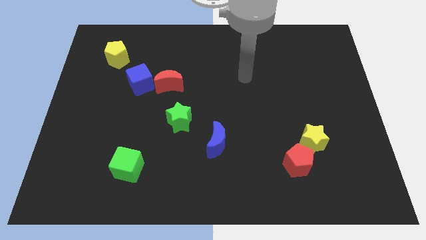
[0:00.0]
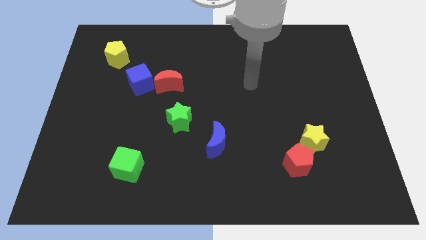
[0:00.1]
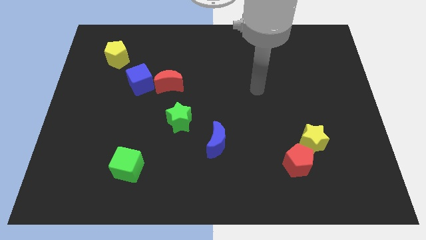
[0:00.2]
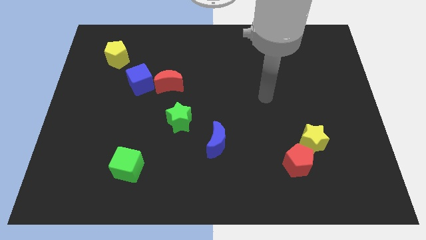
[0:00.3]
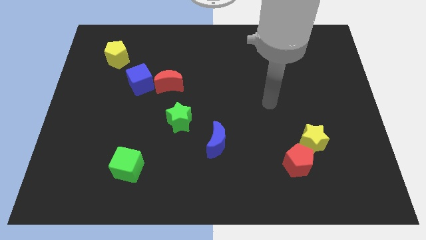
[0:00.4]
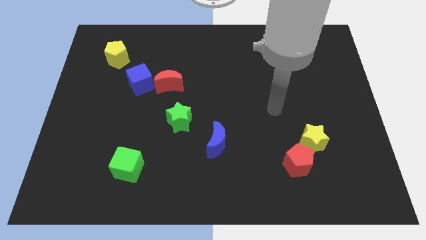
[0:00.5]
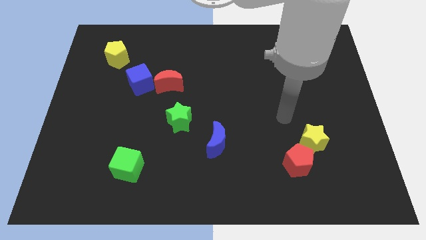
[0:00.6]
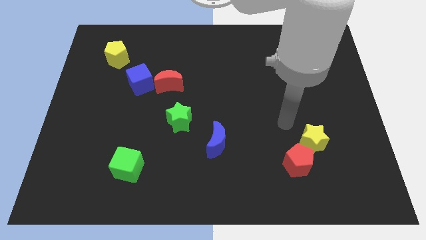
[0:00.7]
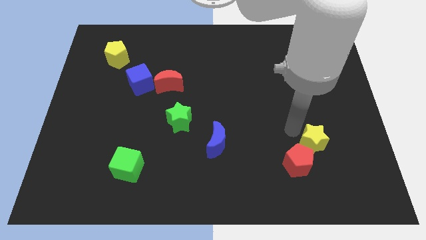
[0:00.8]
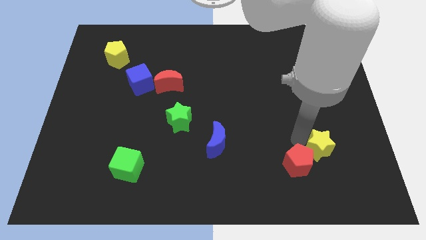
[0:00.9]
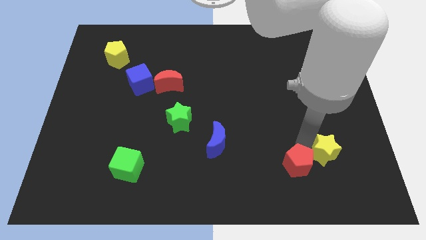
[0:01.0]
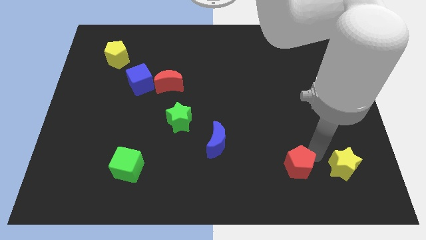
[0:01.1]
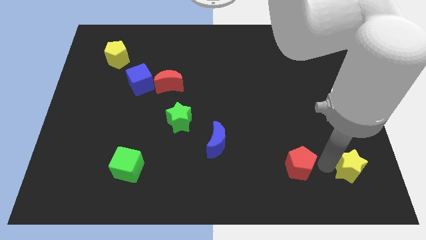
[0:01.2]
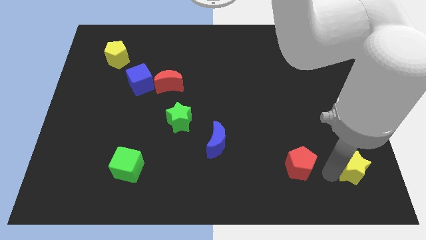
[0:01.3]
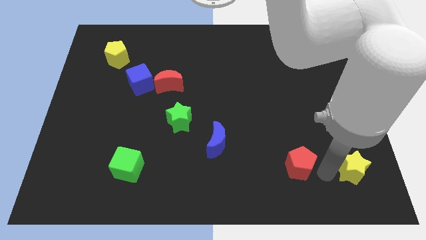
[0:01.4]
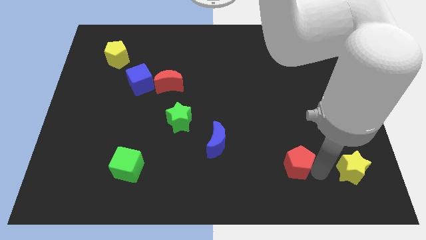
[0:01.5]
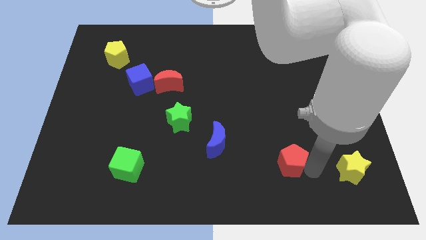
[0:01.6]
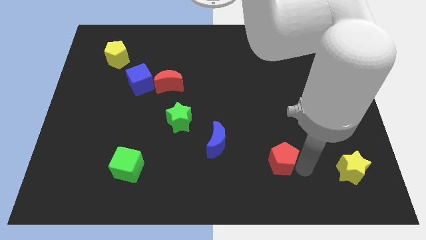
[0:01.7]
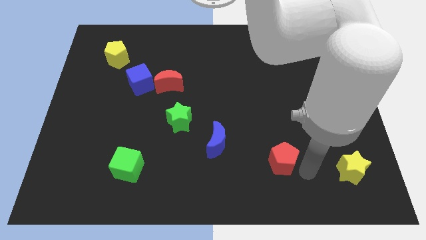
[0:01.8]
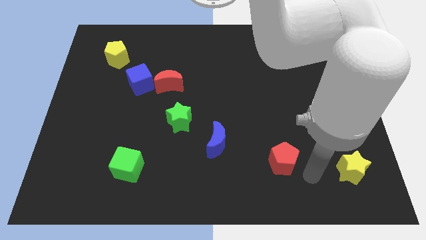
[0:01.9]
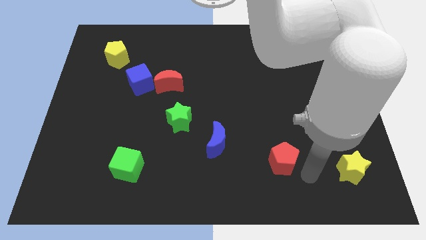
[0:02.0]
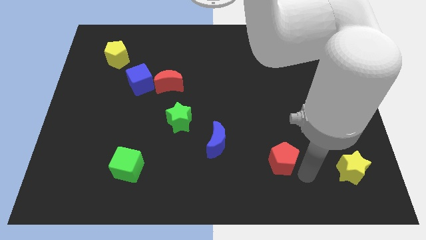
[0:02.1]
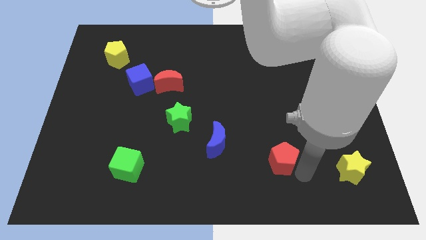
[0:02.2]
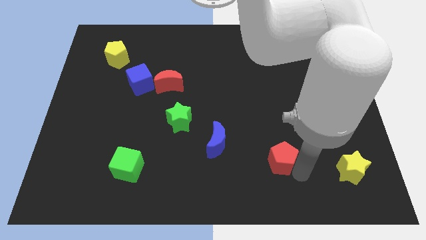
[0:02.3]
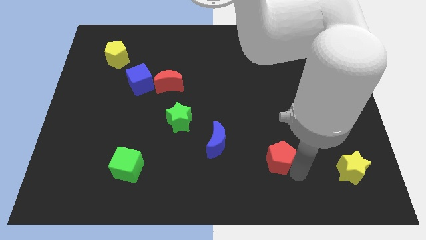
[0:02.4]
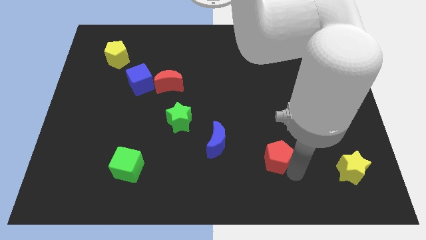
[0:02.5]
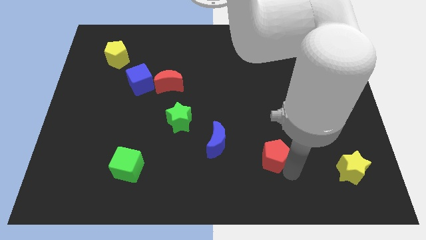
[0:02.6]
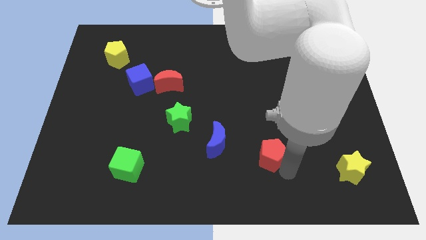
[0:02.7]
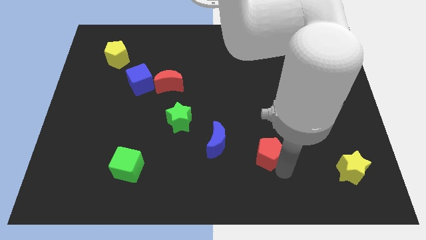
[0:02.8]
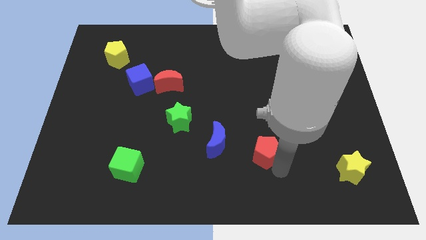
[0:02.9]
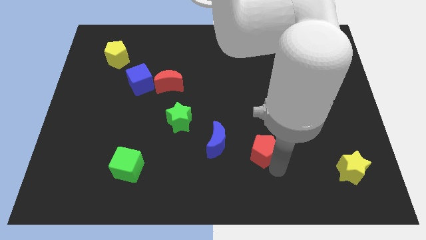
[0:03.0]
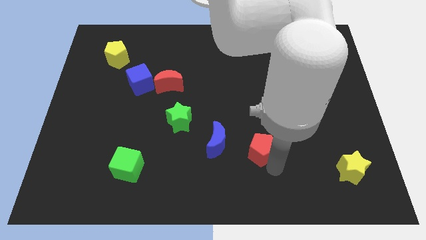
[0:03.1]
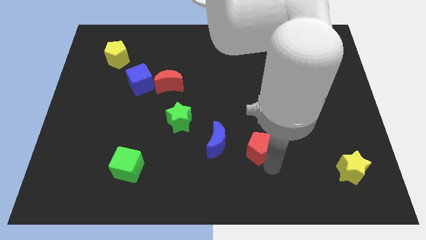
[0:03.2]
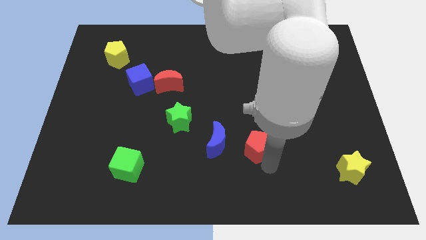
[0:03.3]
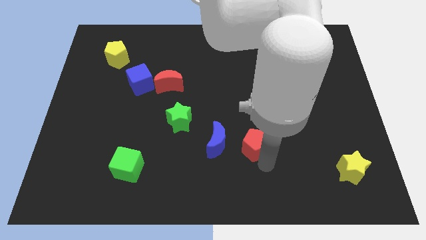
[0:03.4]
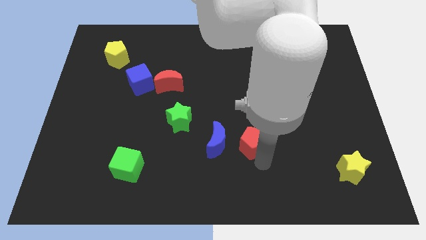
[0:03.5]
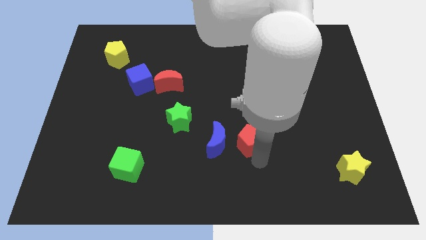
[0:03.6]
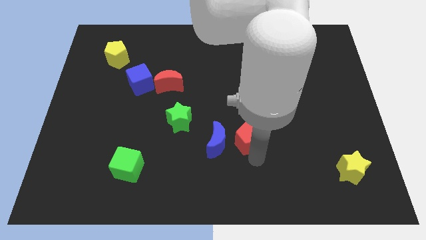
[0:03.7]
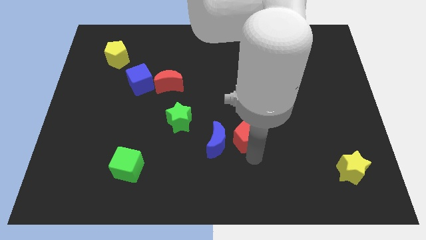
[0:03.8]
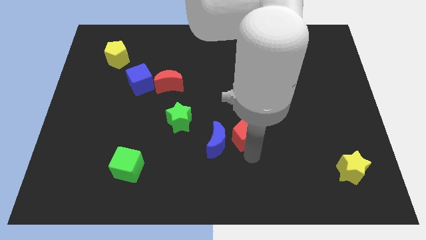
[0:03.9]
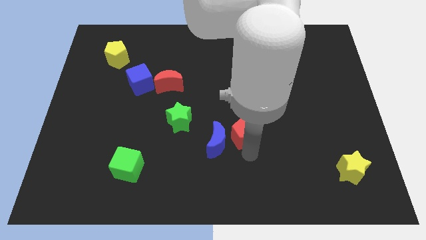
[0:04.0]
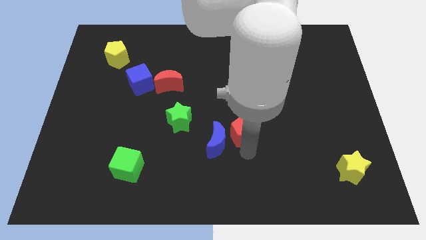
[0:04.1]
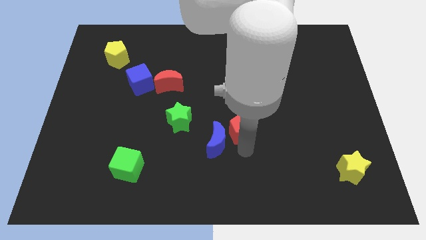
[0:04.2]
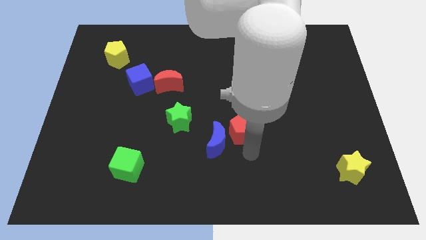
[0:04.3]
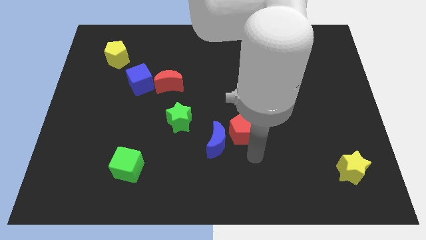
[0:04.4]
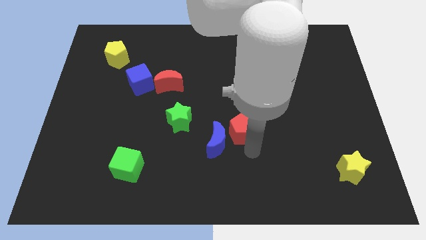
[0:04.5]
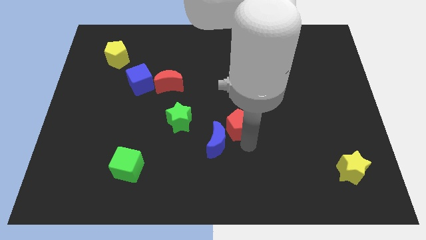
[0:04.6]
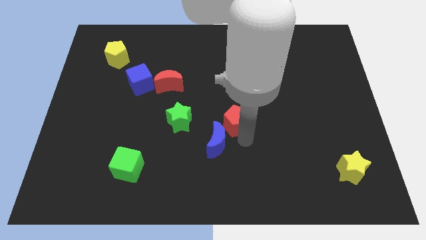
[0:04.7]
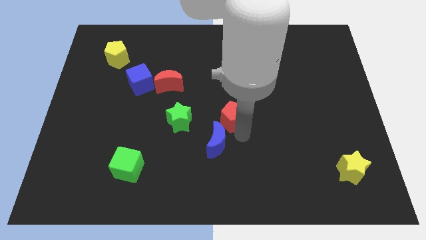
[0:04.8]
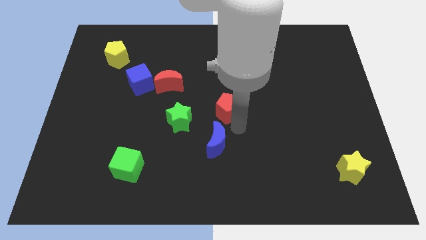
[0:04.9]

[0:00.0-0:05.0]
move the red pentagon up and left

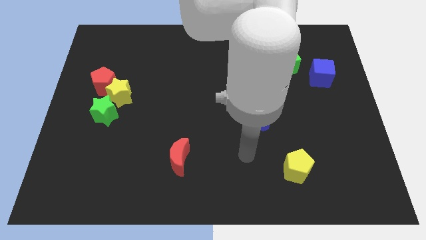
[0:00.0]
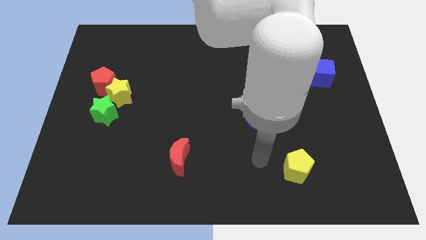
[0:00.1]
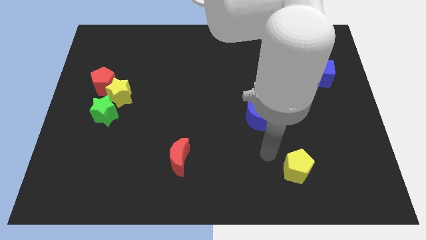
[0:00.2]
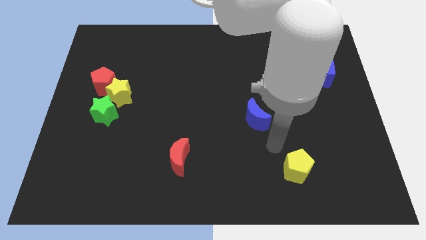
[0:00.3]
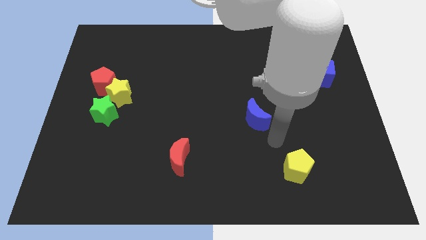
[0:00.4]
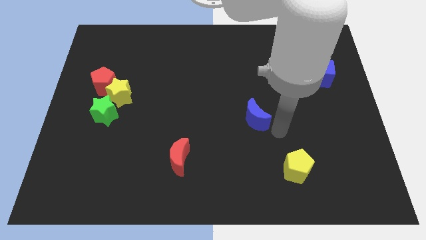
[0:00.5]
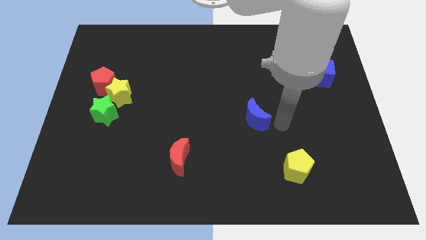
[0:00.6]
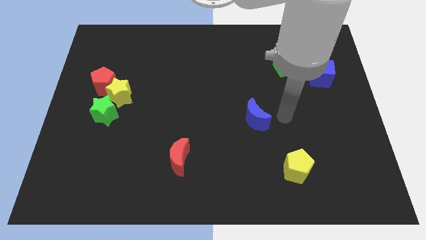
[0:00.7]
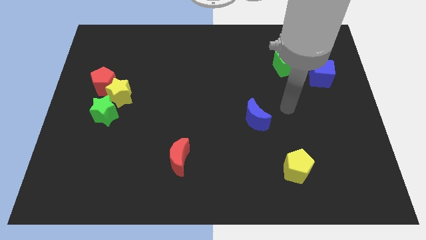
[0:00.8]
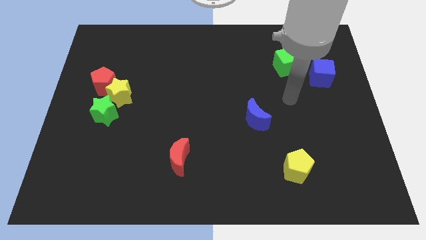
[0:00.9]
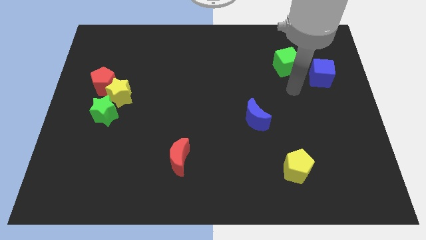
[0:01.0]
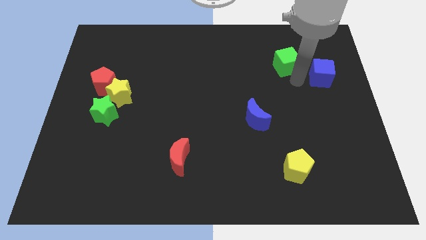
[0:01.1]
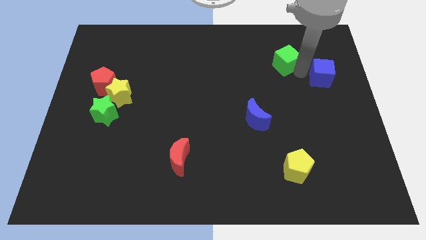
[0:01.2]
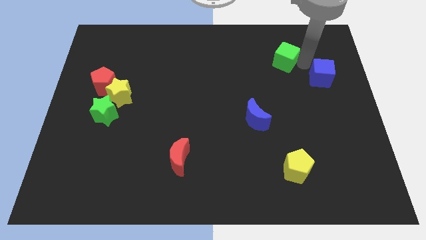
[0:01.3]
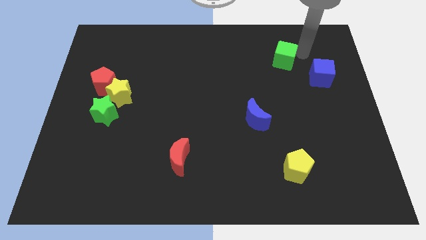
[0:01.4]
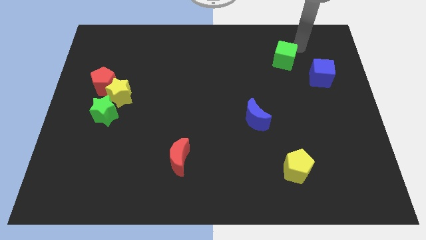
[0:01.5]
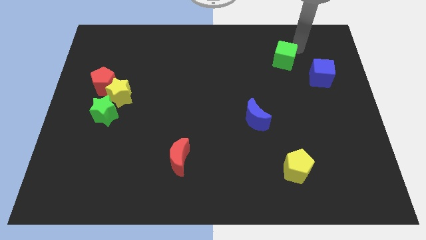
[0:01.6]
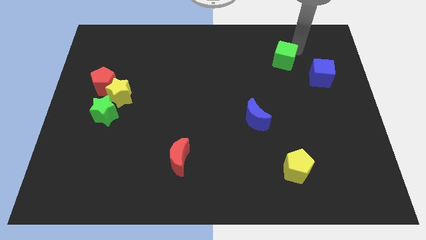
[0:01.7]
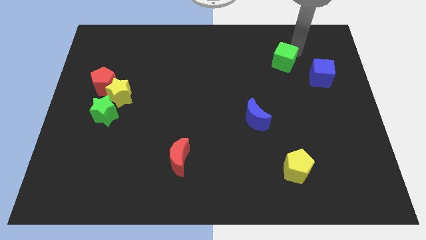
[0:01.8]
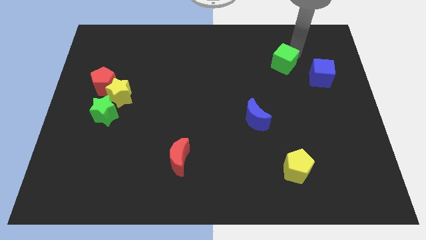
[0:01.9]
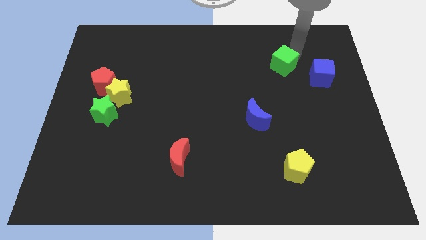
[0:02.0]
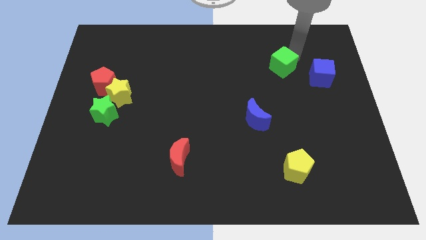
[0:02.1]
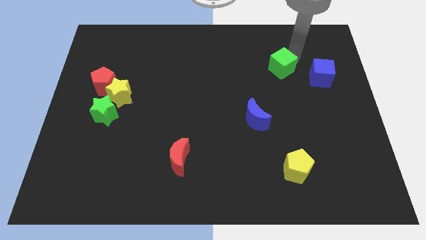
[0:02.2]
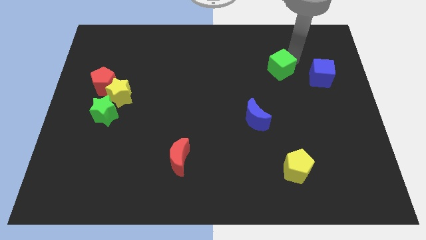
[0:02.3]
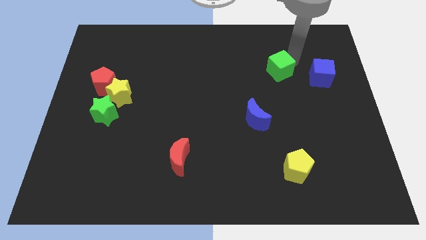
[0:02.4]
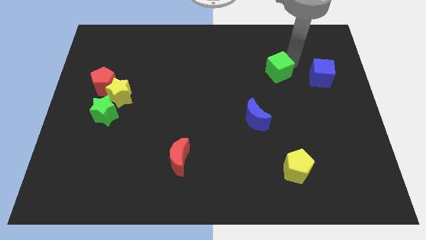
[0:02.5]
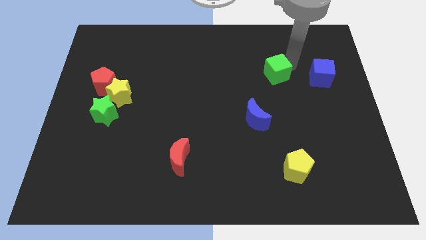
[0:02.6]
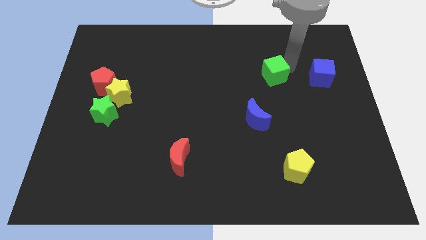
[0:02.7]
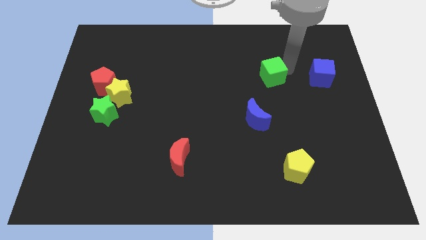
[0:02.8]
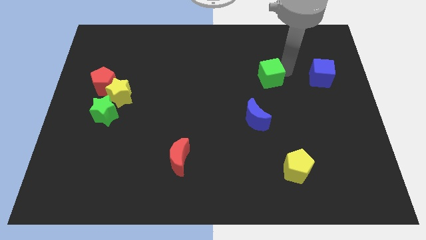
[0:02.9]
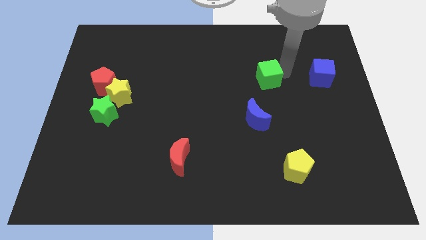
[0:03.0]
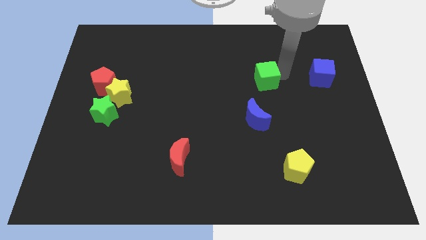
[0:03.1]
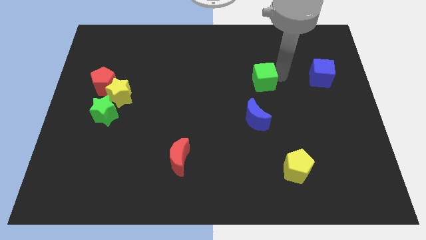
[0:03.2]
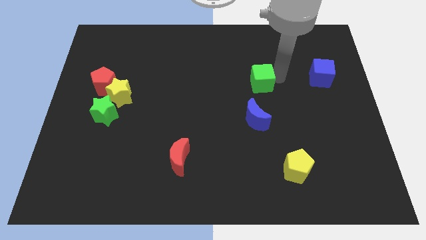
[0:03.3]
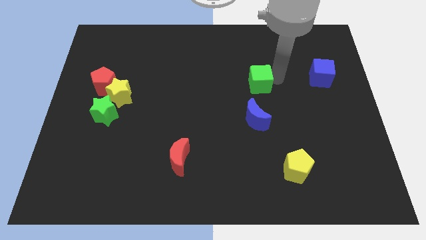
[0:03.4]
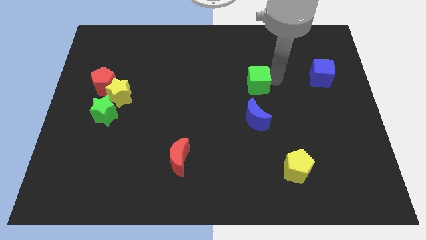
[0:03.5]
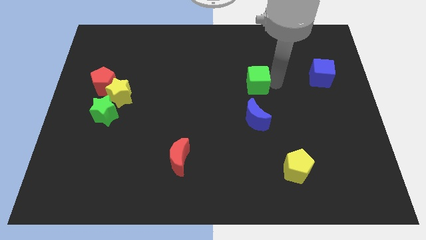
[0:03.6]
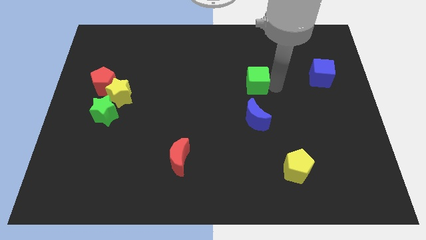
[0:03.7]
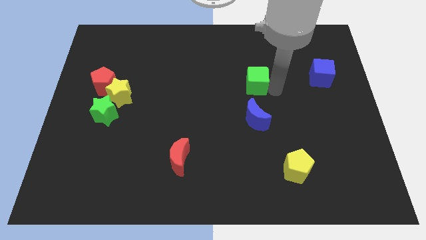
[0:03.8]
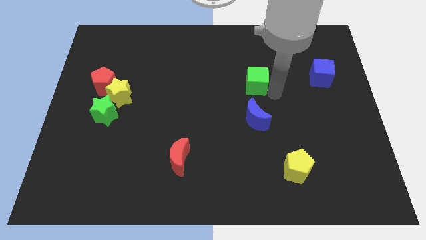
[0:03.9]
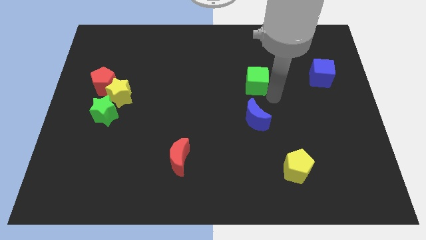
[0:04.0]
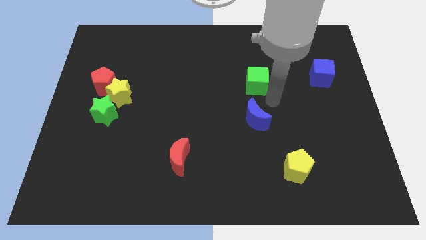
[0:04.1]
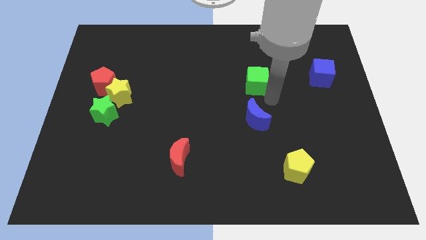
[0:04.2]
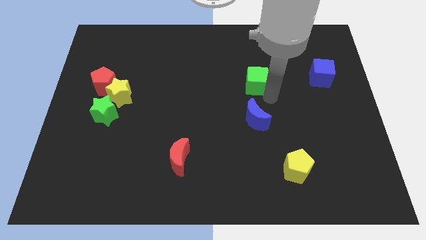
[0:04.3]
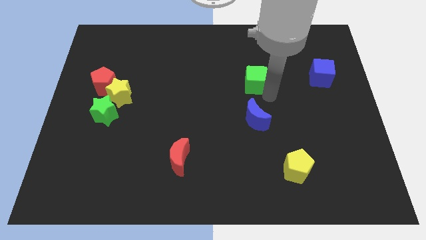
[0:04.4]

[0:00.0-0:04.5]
move the green cube somewhat left
